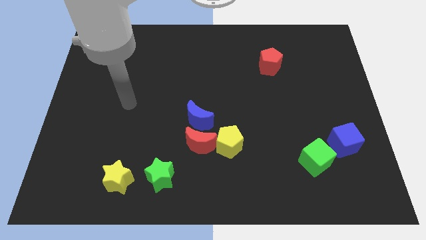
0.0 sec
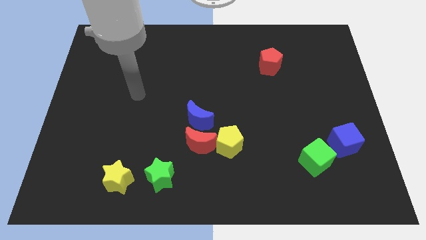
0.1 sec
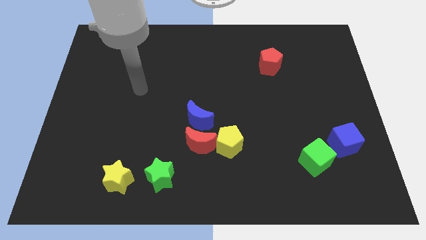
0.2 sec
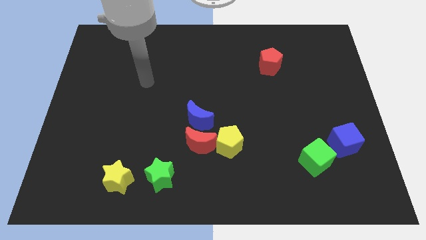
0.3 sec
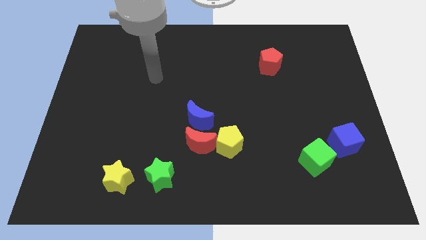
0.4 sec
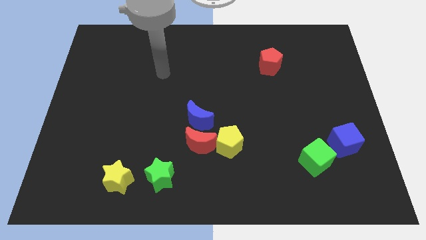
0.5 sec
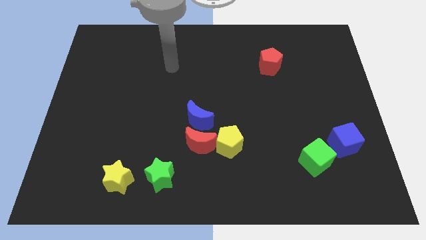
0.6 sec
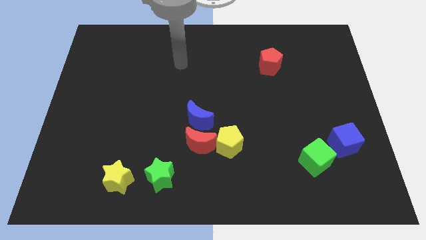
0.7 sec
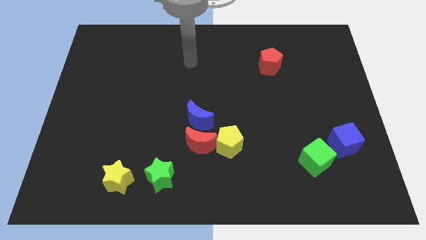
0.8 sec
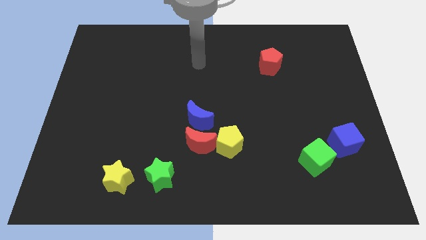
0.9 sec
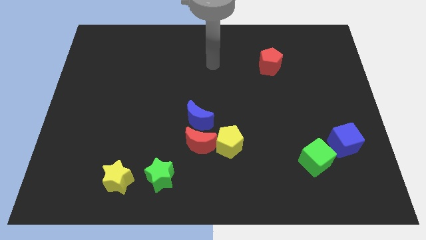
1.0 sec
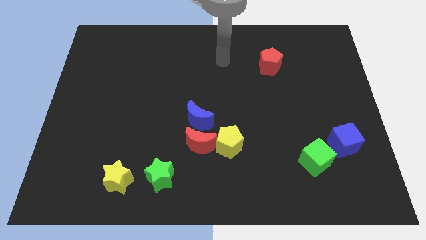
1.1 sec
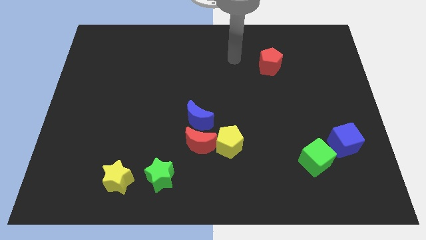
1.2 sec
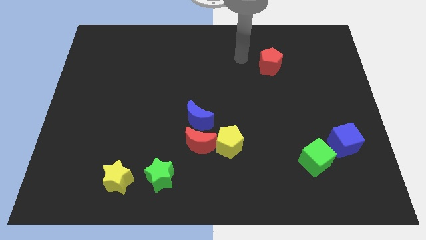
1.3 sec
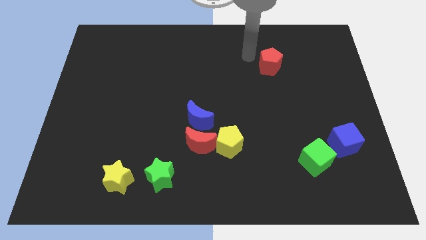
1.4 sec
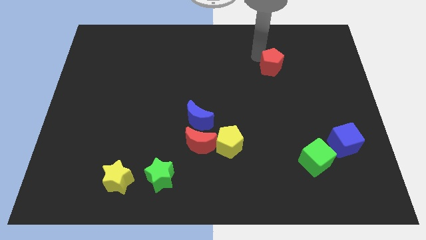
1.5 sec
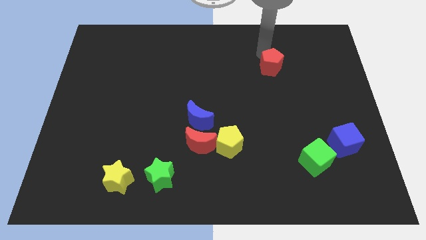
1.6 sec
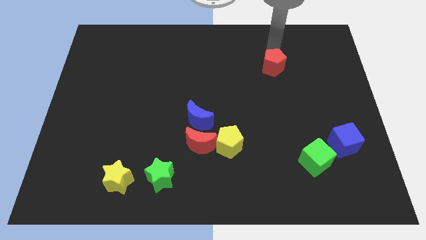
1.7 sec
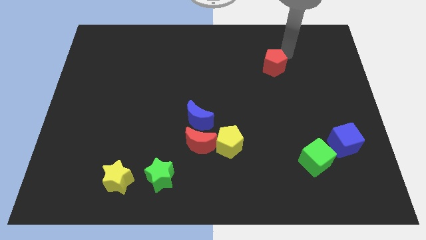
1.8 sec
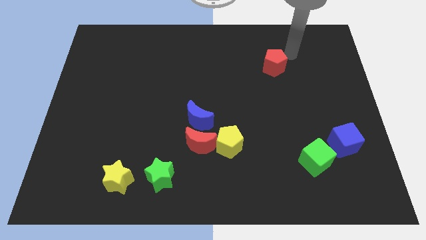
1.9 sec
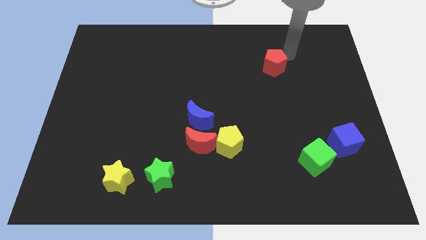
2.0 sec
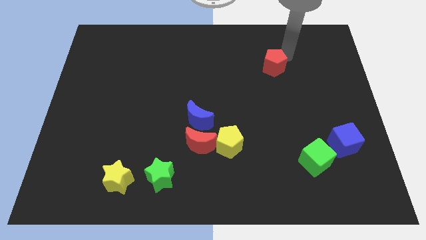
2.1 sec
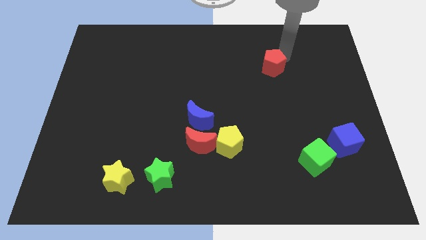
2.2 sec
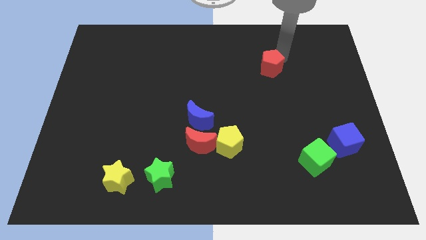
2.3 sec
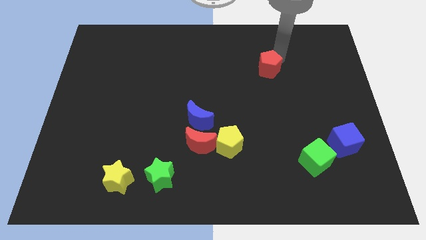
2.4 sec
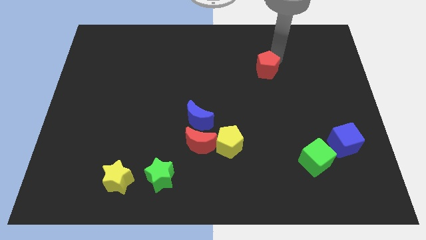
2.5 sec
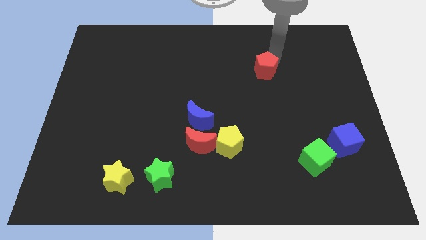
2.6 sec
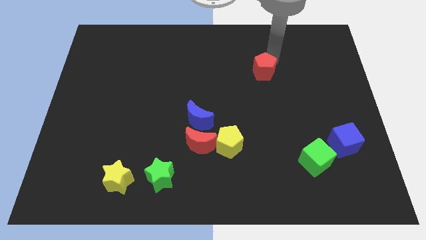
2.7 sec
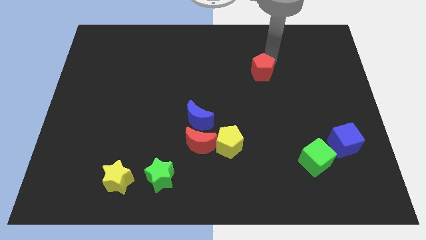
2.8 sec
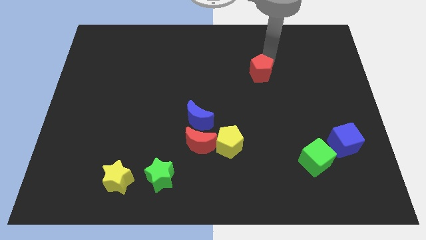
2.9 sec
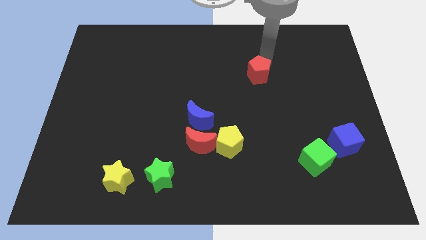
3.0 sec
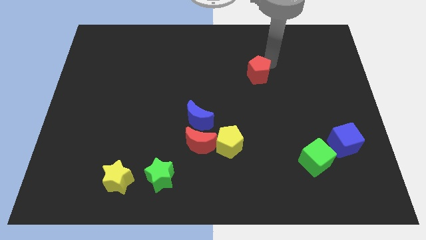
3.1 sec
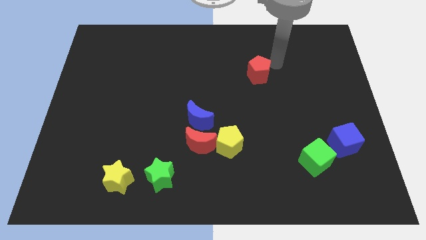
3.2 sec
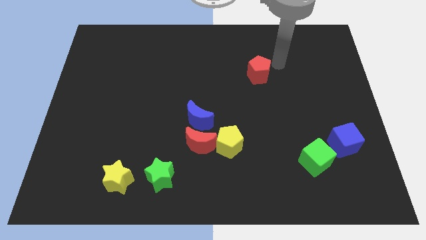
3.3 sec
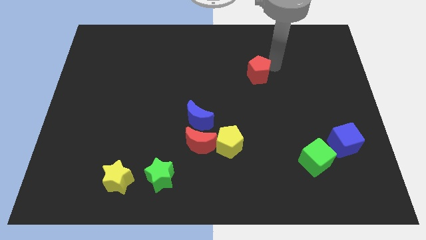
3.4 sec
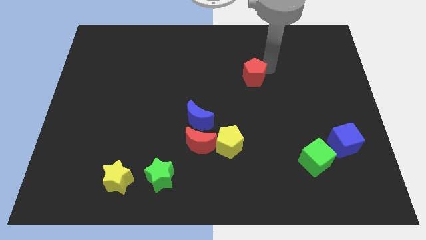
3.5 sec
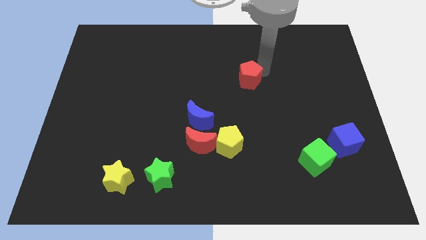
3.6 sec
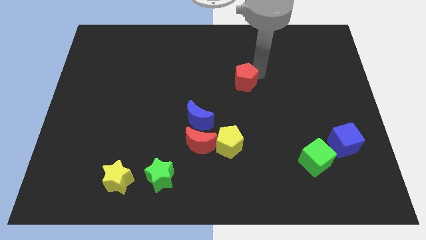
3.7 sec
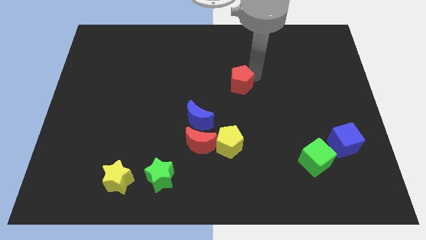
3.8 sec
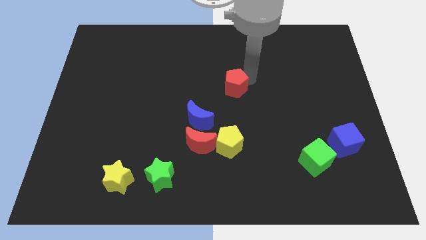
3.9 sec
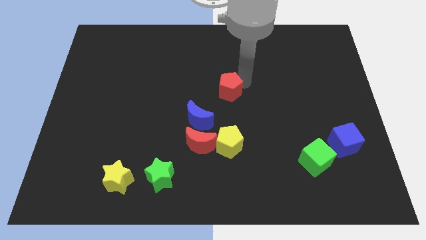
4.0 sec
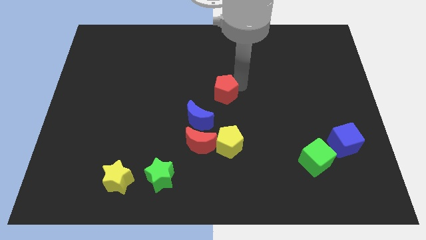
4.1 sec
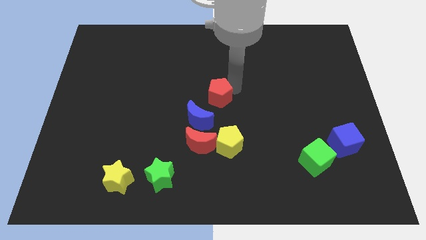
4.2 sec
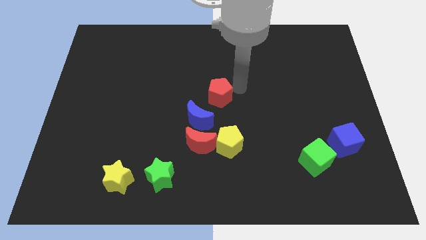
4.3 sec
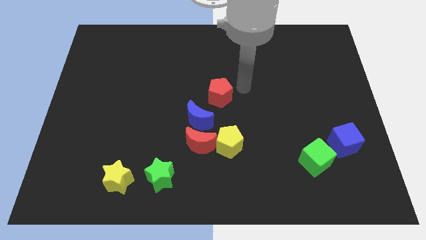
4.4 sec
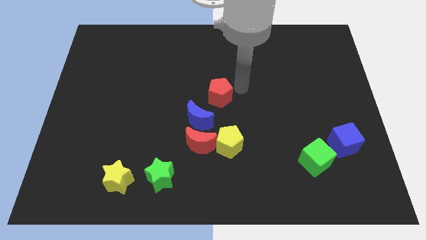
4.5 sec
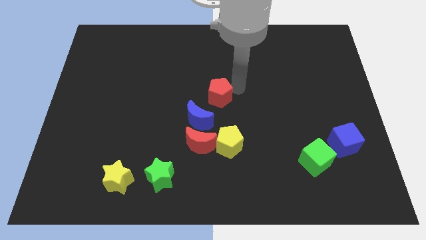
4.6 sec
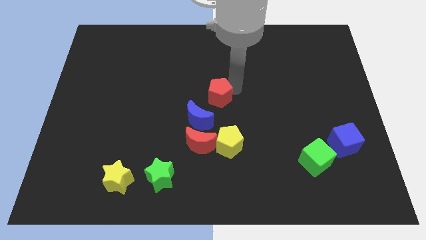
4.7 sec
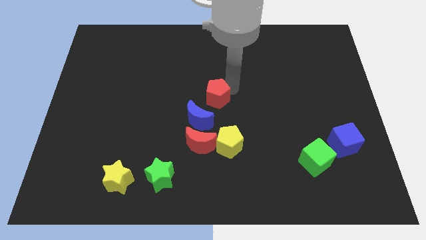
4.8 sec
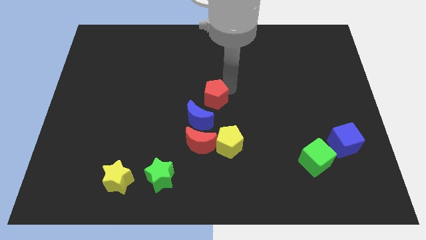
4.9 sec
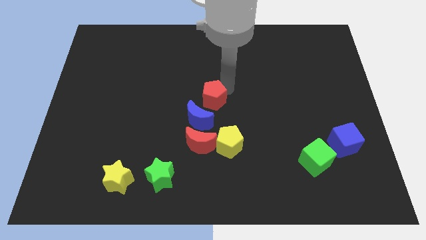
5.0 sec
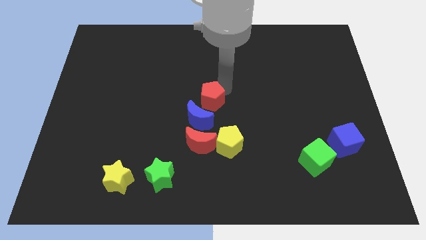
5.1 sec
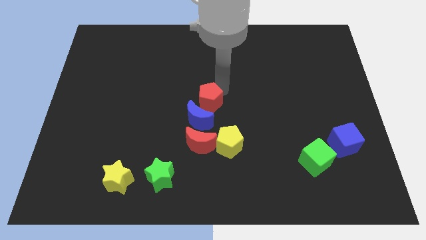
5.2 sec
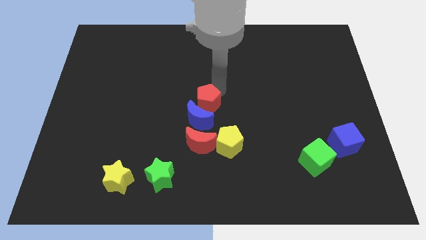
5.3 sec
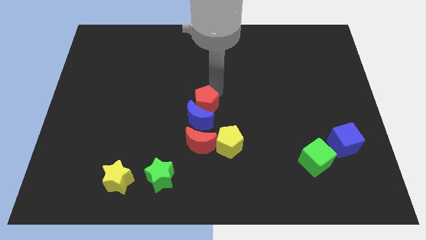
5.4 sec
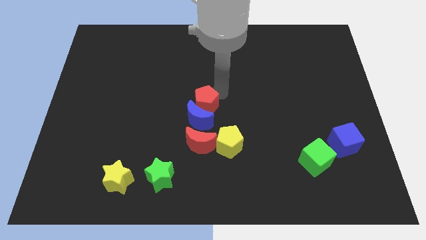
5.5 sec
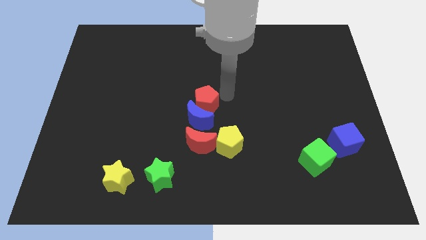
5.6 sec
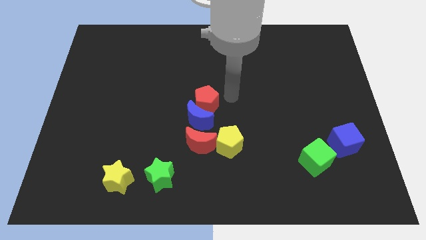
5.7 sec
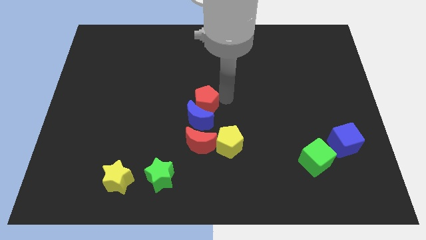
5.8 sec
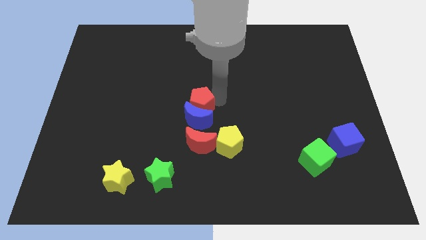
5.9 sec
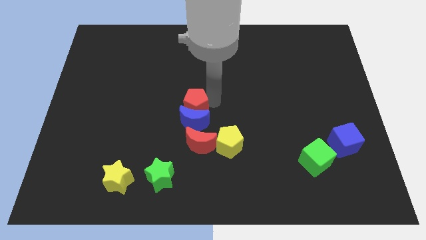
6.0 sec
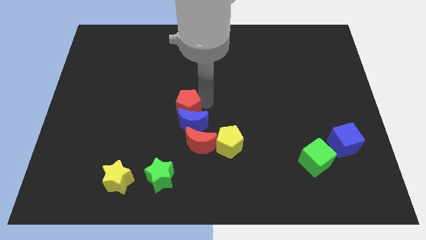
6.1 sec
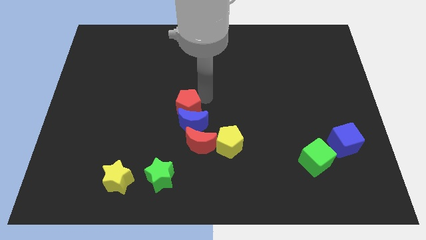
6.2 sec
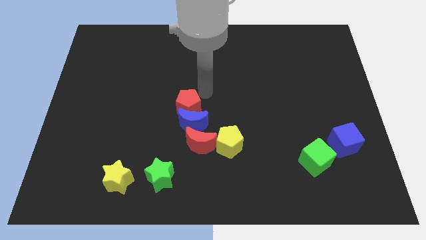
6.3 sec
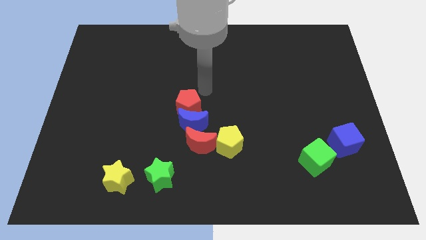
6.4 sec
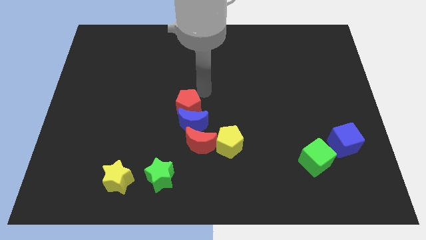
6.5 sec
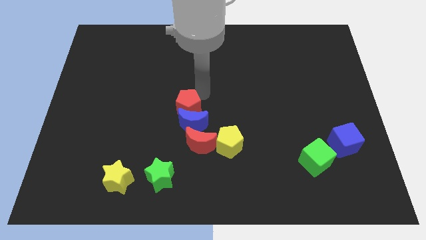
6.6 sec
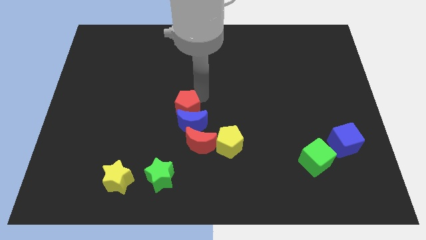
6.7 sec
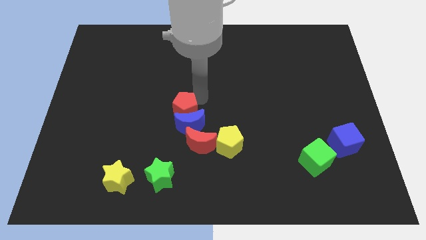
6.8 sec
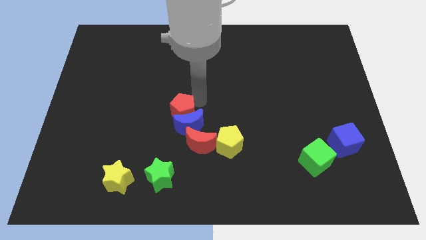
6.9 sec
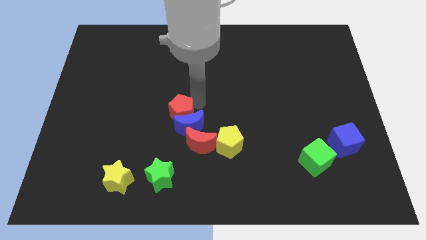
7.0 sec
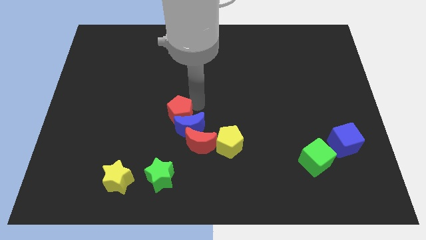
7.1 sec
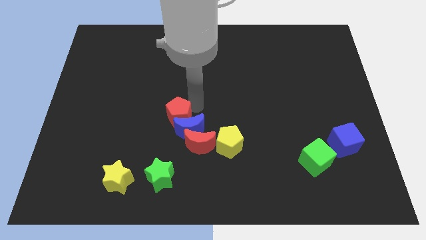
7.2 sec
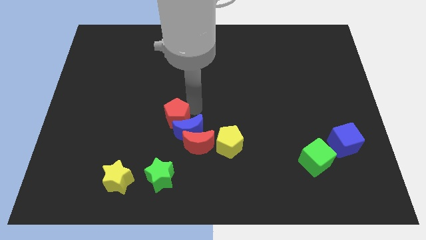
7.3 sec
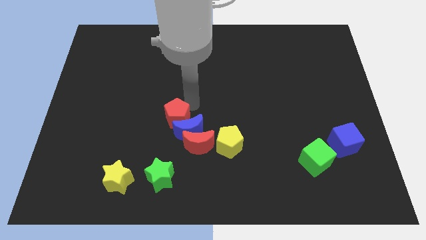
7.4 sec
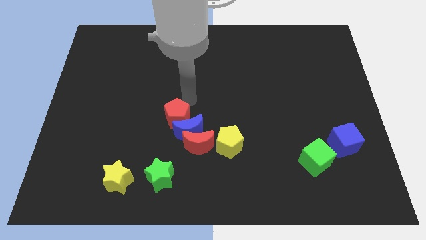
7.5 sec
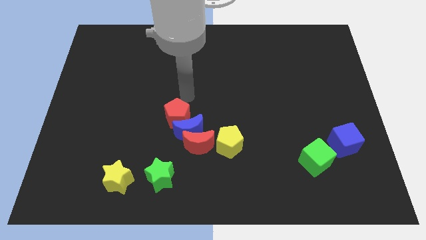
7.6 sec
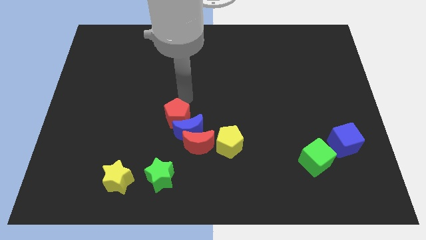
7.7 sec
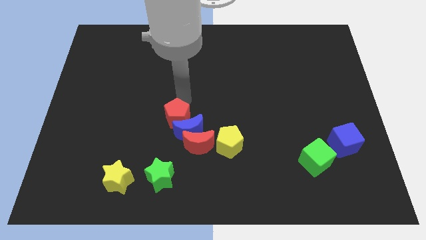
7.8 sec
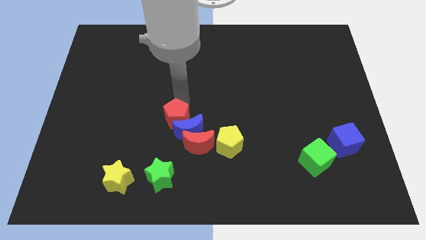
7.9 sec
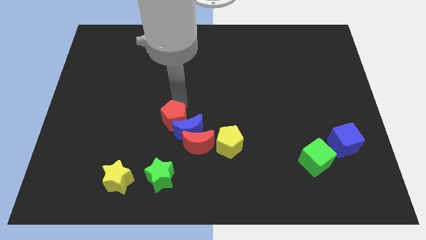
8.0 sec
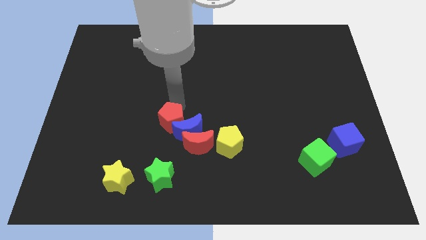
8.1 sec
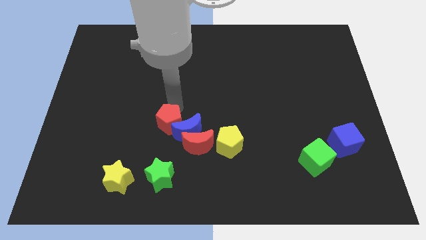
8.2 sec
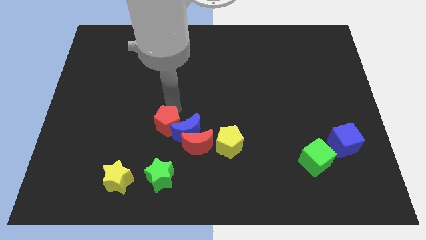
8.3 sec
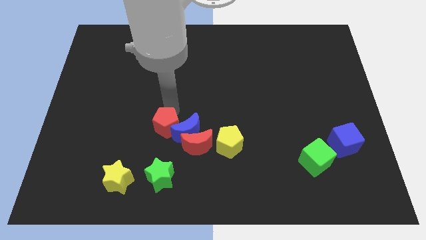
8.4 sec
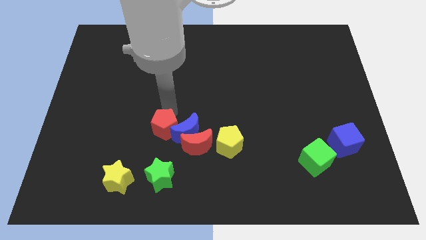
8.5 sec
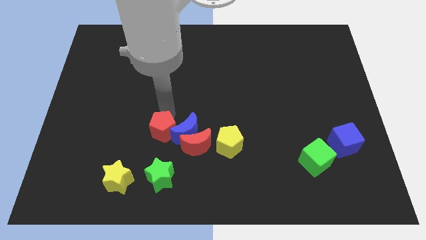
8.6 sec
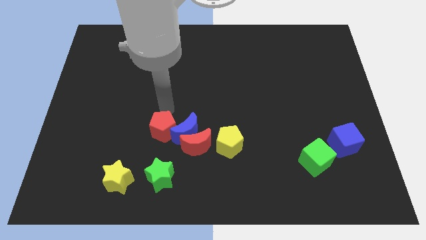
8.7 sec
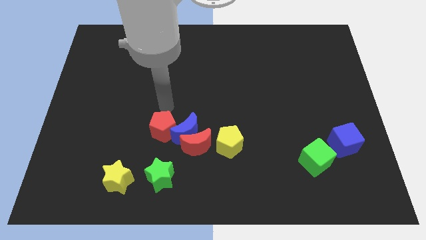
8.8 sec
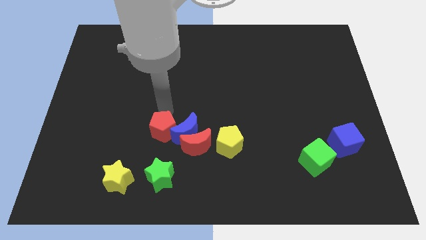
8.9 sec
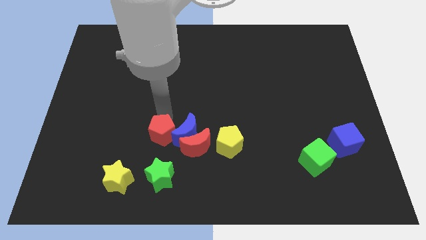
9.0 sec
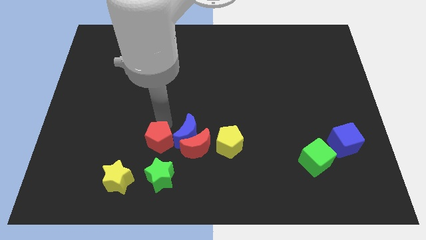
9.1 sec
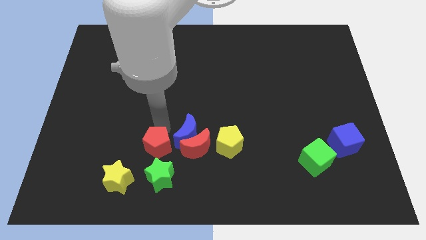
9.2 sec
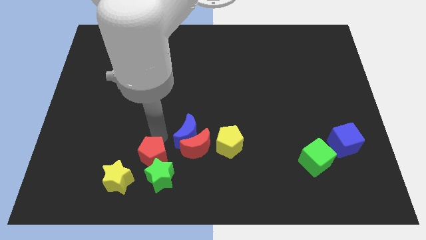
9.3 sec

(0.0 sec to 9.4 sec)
move the red pentagon towards the green star
